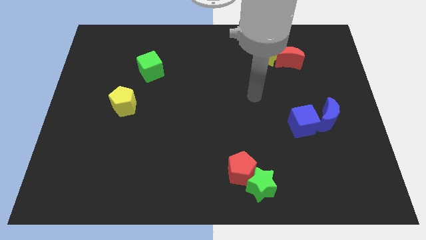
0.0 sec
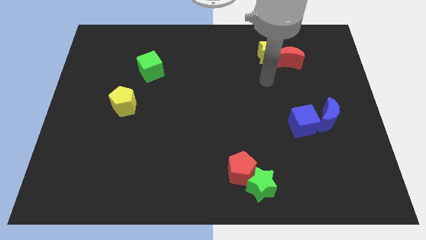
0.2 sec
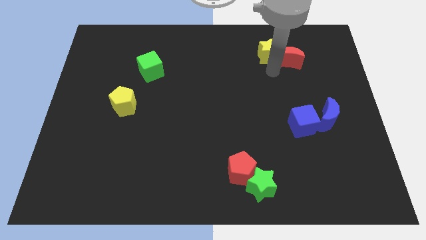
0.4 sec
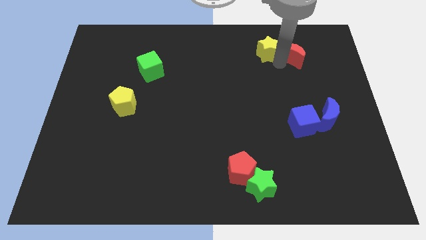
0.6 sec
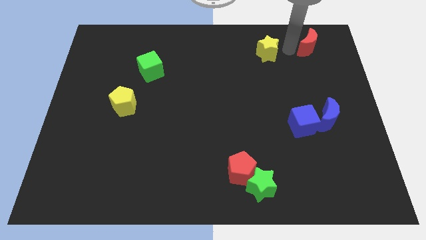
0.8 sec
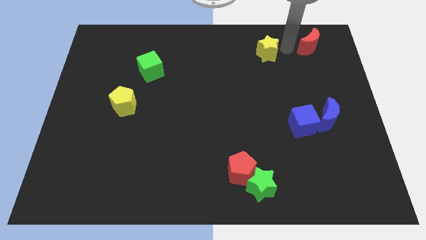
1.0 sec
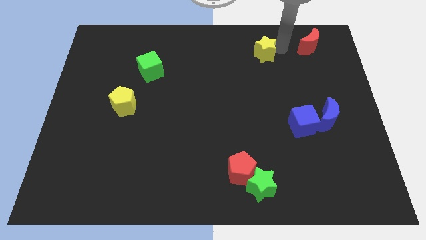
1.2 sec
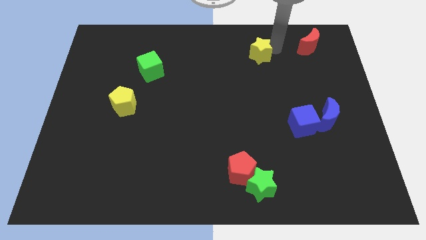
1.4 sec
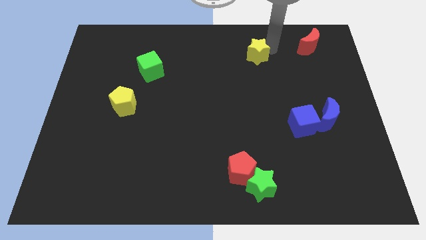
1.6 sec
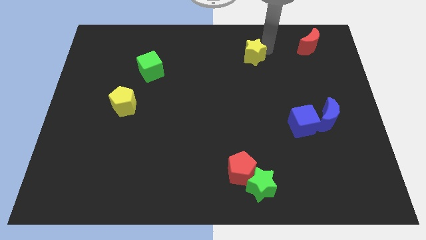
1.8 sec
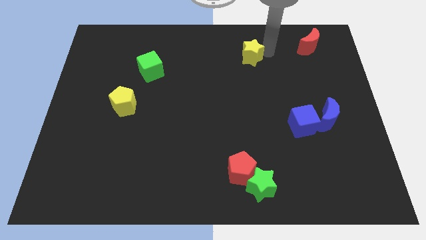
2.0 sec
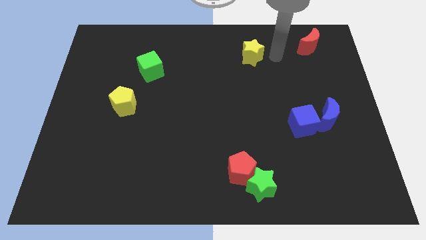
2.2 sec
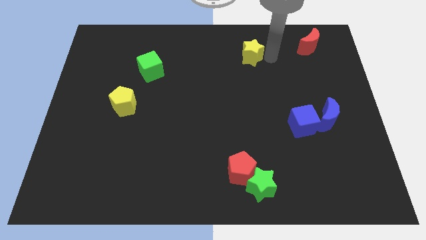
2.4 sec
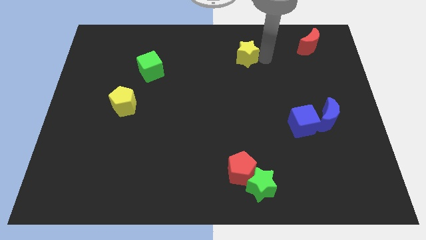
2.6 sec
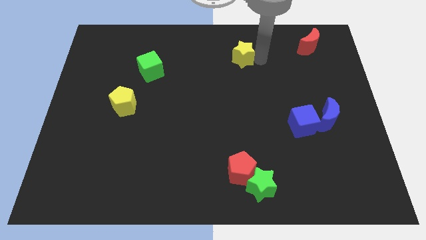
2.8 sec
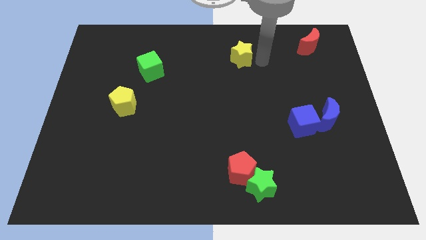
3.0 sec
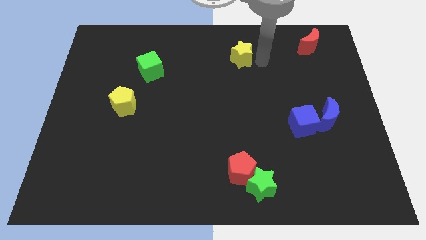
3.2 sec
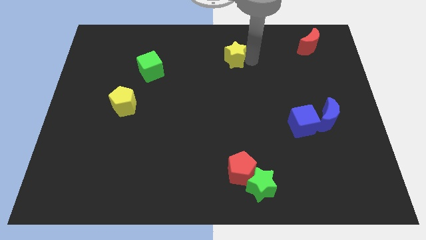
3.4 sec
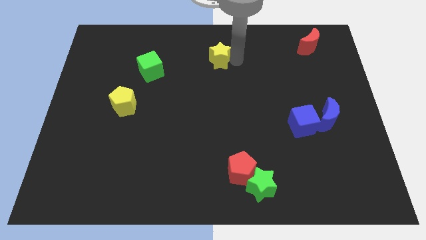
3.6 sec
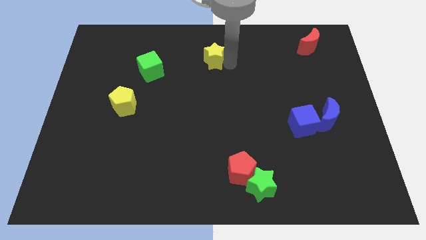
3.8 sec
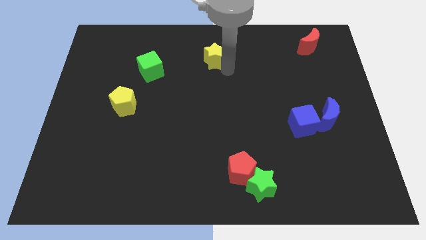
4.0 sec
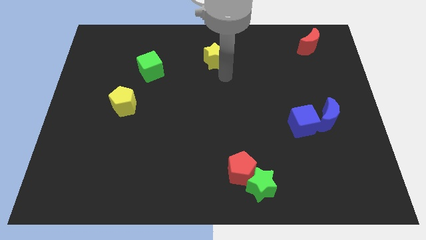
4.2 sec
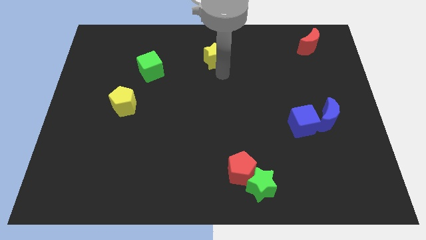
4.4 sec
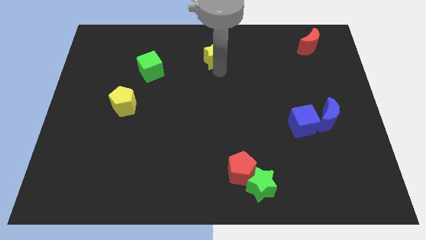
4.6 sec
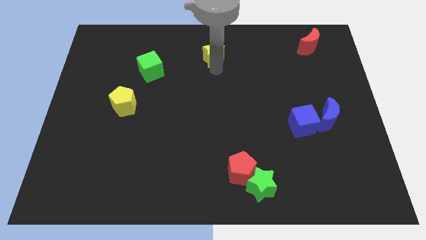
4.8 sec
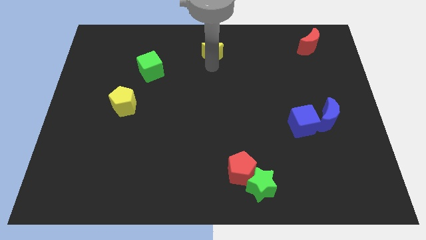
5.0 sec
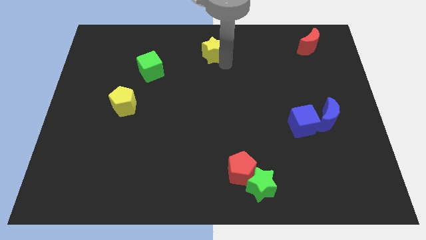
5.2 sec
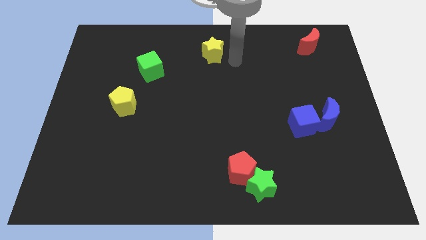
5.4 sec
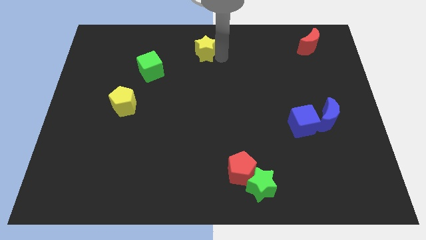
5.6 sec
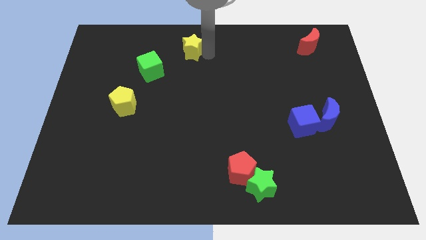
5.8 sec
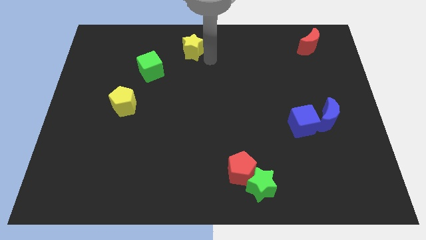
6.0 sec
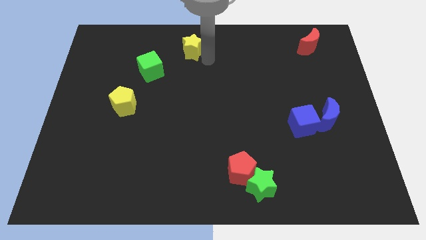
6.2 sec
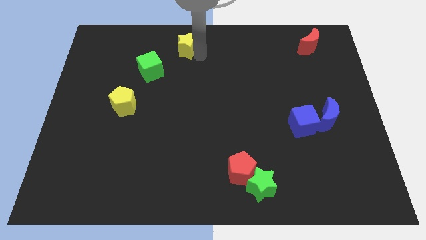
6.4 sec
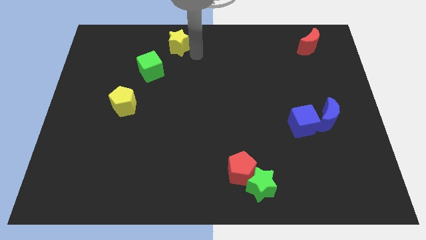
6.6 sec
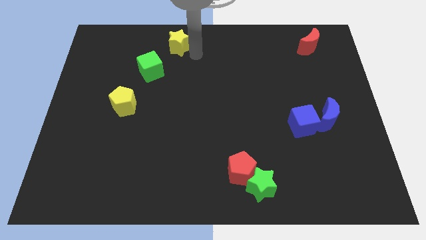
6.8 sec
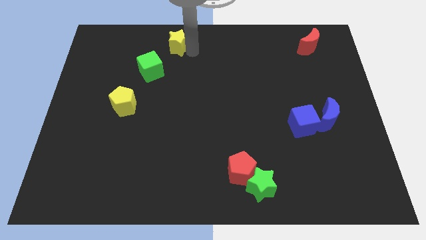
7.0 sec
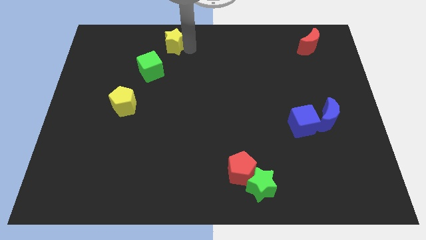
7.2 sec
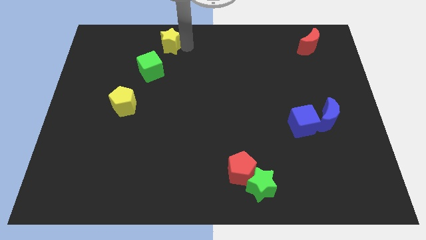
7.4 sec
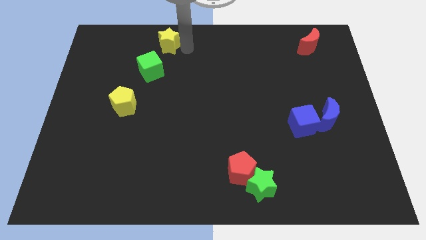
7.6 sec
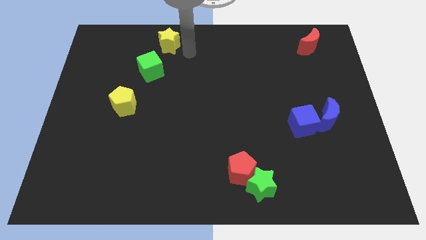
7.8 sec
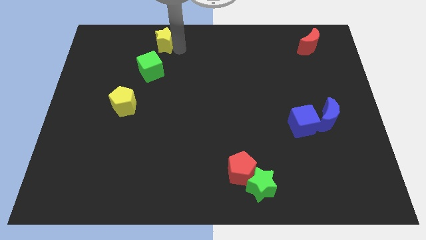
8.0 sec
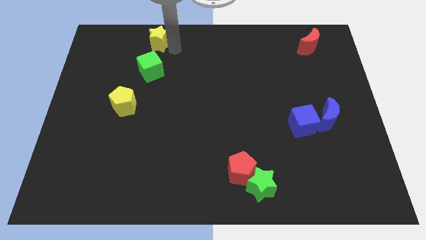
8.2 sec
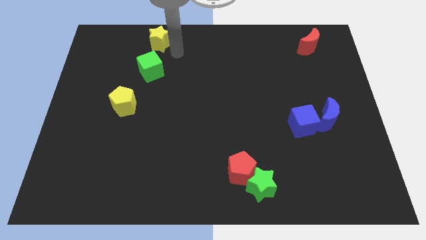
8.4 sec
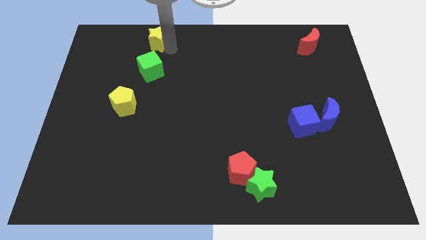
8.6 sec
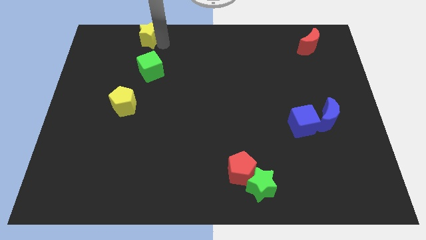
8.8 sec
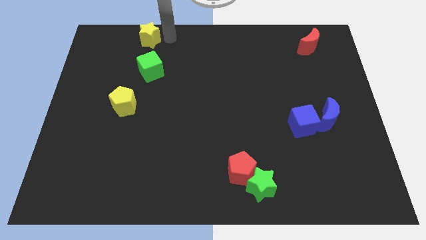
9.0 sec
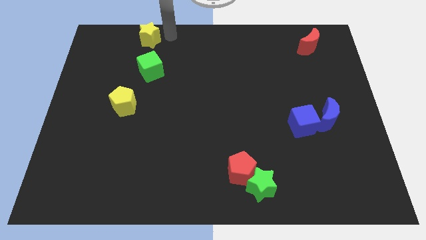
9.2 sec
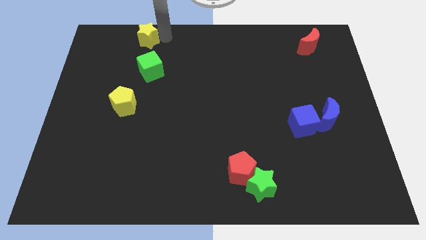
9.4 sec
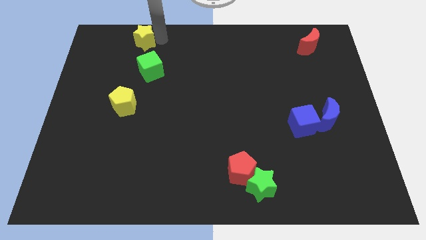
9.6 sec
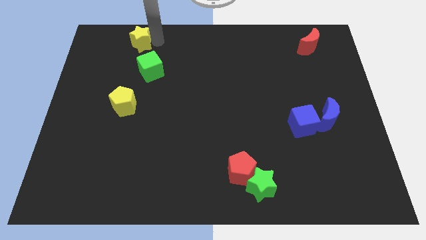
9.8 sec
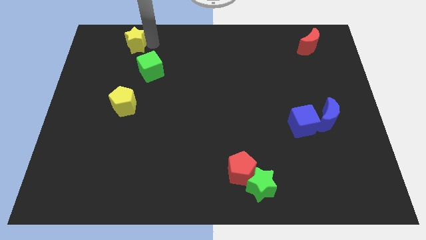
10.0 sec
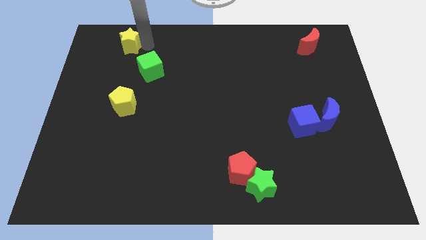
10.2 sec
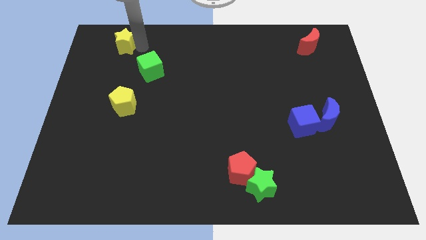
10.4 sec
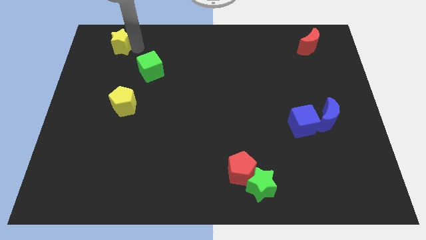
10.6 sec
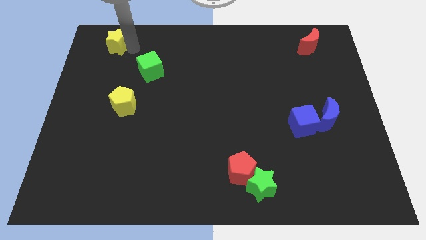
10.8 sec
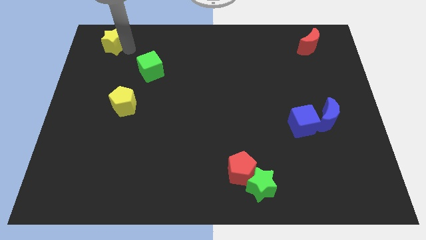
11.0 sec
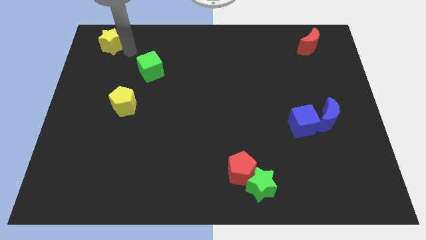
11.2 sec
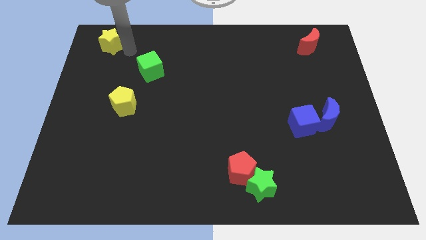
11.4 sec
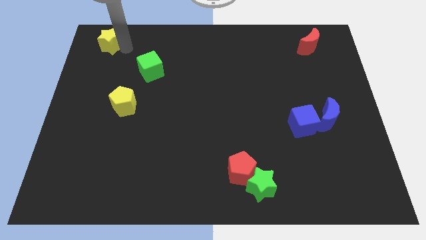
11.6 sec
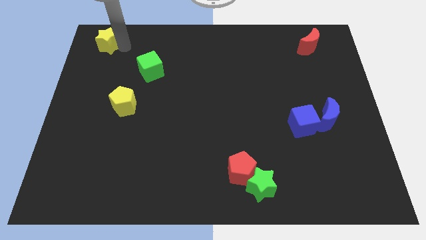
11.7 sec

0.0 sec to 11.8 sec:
put the yellow star to the top left
